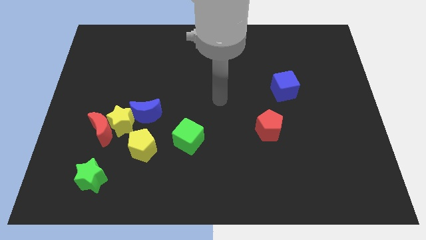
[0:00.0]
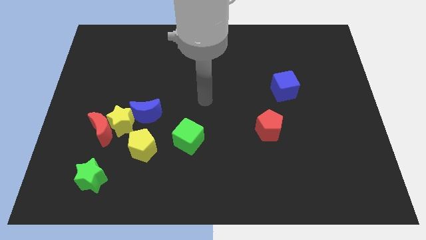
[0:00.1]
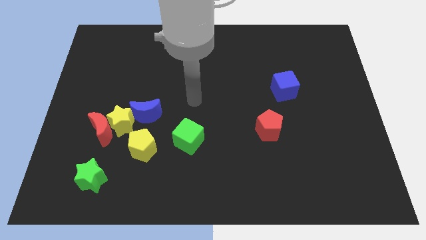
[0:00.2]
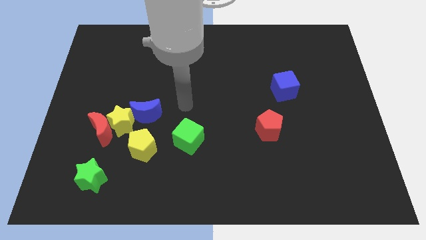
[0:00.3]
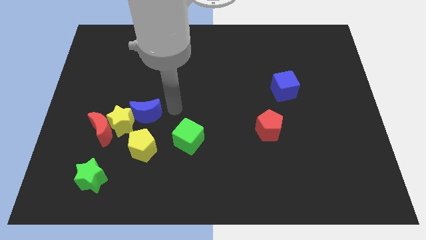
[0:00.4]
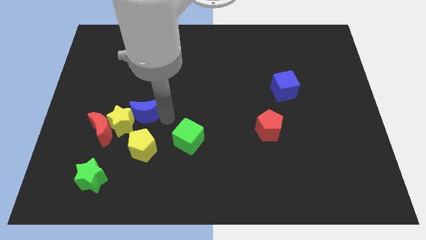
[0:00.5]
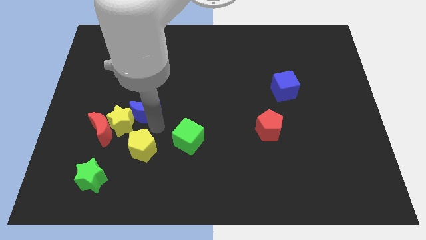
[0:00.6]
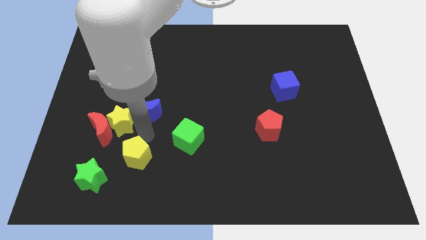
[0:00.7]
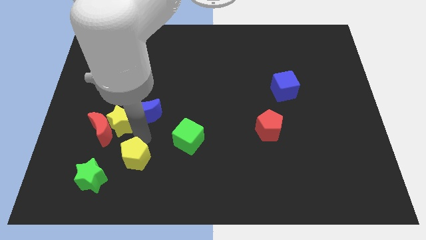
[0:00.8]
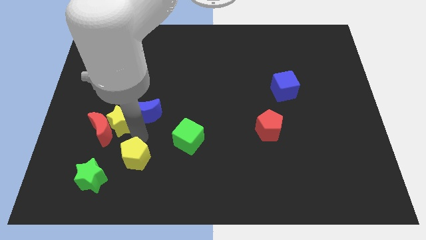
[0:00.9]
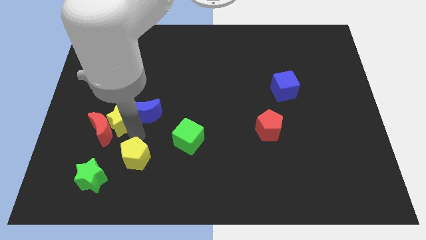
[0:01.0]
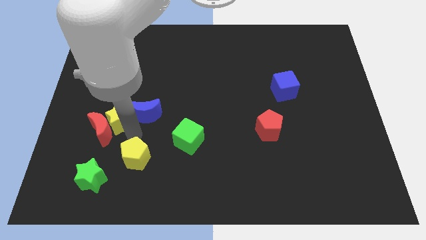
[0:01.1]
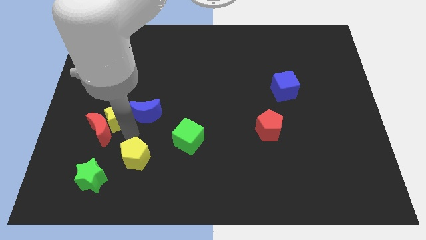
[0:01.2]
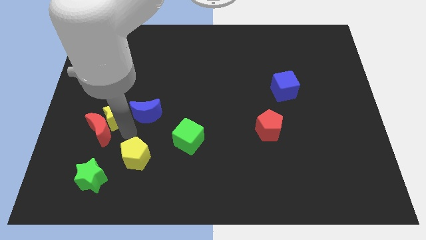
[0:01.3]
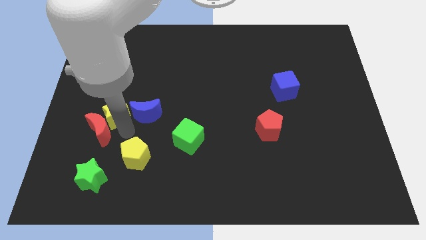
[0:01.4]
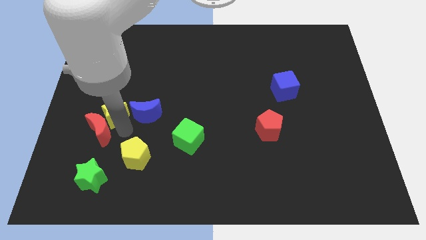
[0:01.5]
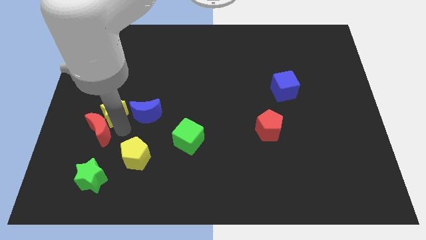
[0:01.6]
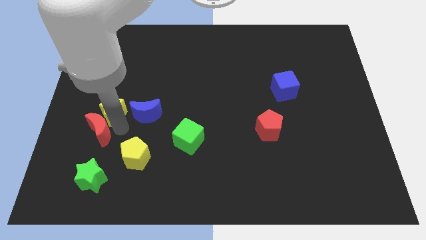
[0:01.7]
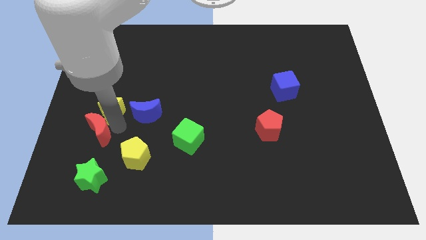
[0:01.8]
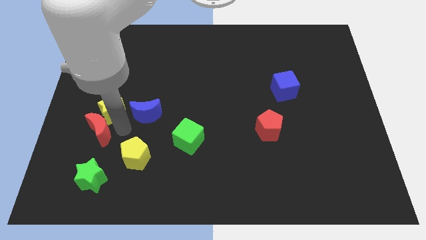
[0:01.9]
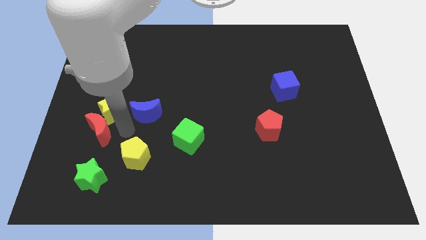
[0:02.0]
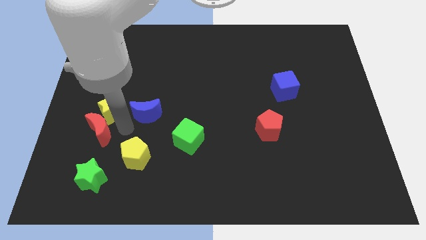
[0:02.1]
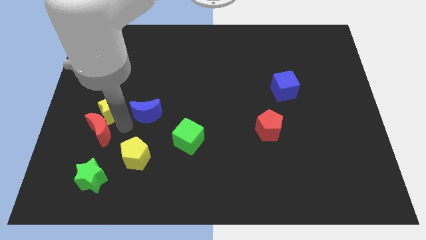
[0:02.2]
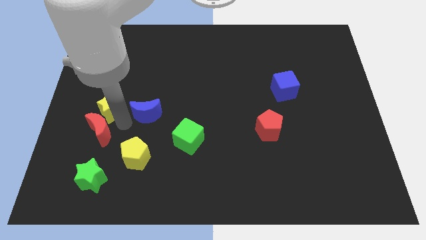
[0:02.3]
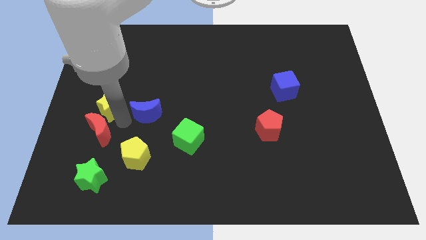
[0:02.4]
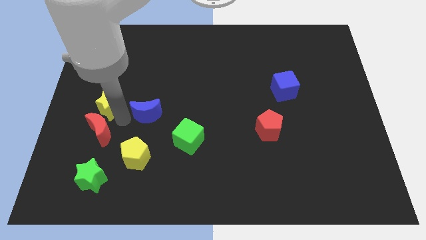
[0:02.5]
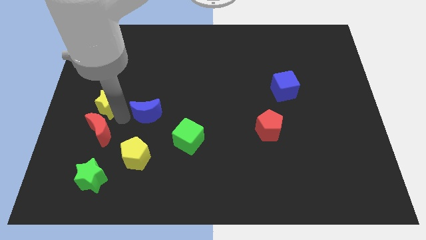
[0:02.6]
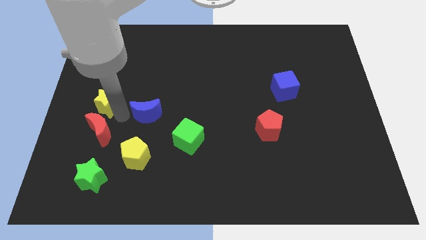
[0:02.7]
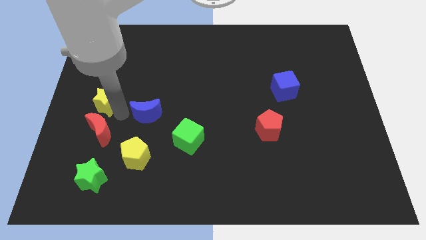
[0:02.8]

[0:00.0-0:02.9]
separate the yellow star from the red moon, blue moon, and yellow pentagon

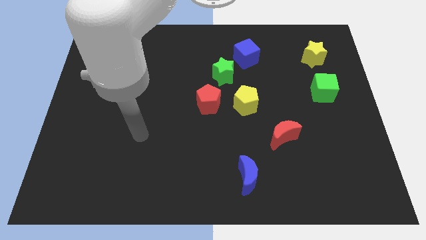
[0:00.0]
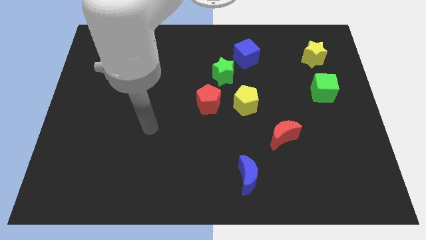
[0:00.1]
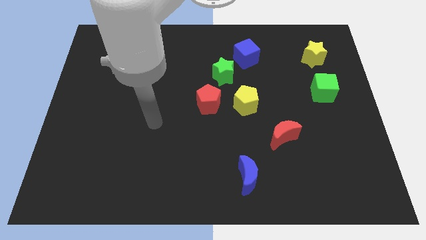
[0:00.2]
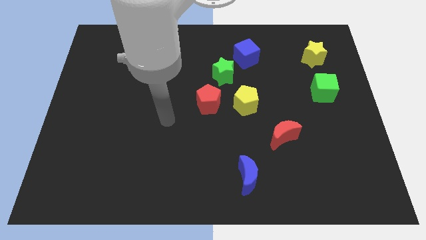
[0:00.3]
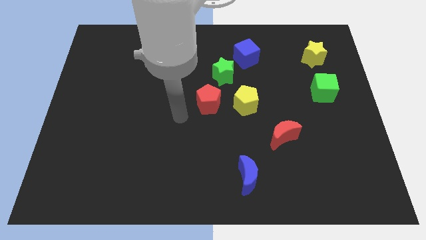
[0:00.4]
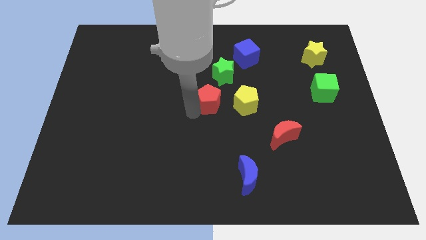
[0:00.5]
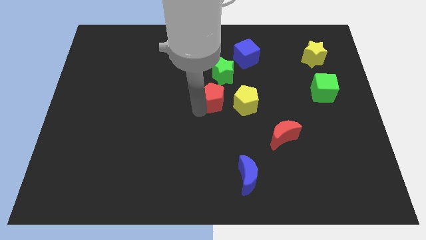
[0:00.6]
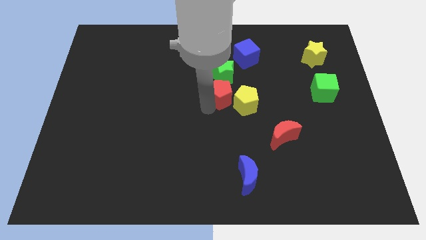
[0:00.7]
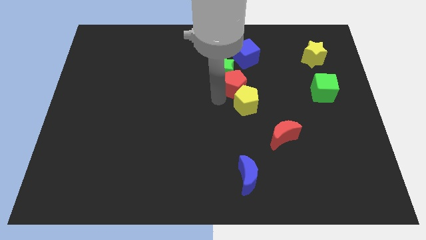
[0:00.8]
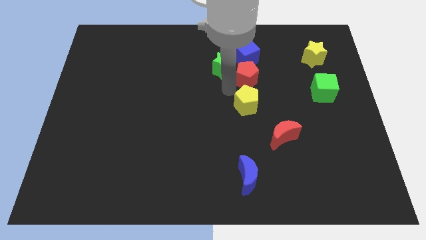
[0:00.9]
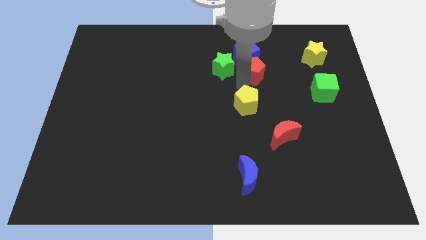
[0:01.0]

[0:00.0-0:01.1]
move the yellow pentagon away from the red pentagon

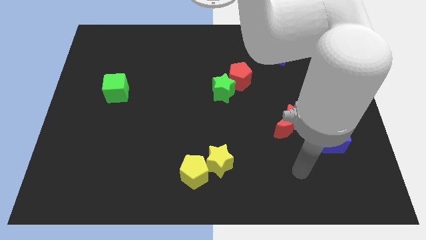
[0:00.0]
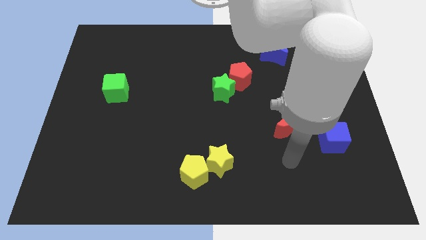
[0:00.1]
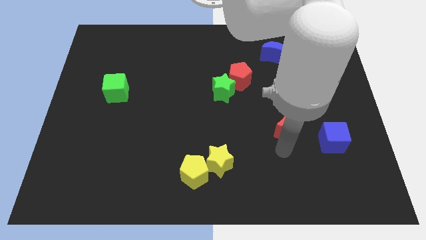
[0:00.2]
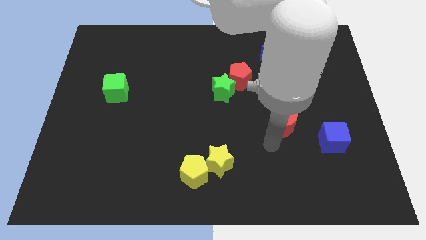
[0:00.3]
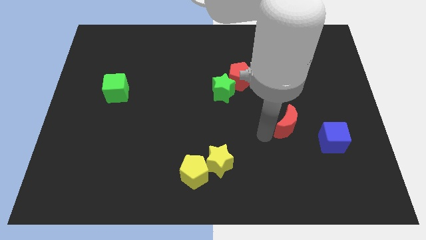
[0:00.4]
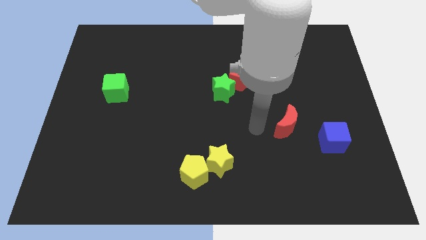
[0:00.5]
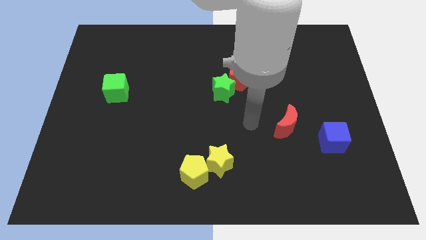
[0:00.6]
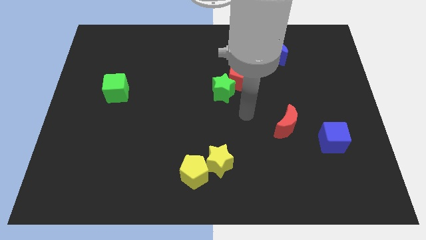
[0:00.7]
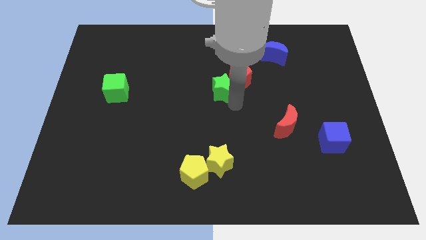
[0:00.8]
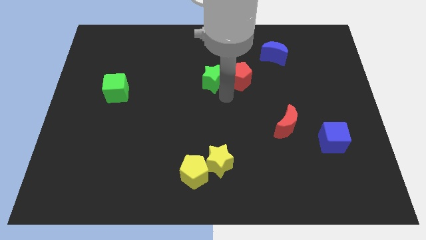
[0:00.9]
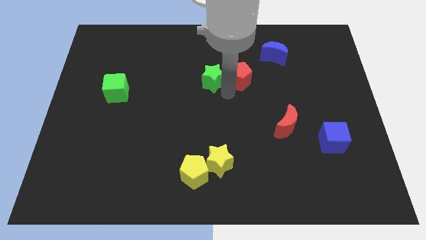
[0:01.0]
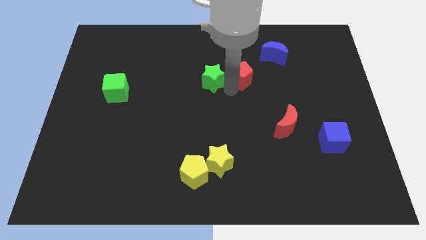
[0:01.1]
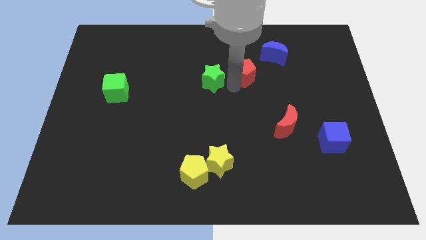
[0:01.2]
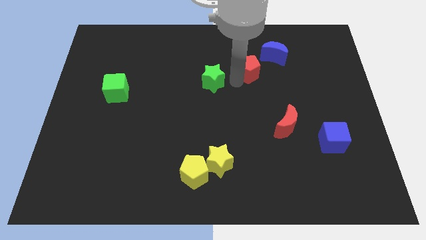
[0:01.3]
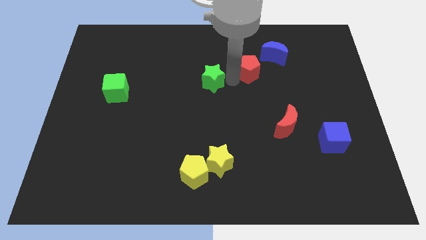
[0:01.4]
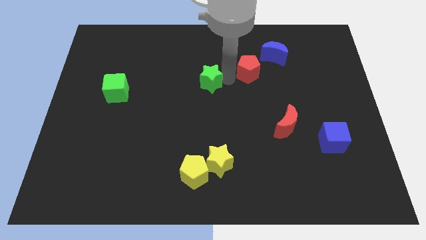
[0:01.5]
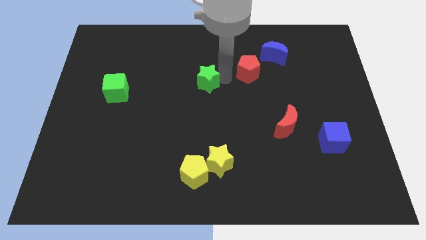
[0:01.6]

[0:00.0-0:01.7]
move the red pentagon away from the green star

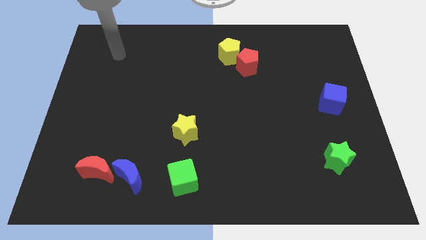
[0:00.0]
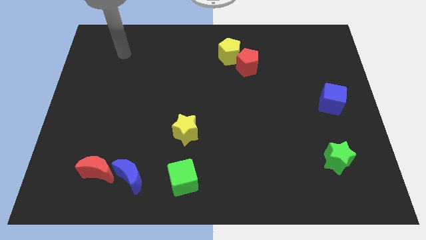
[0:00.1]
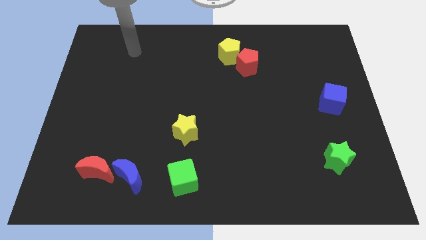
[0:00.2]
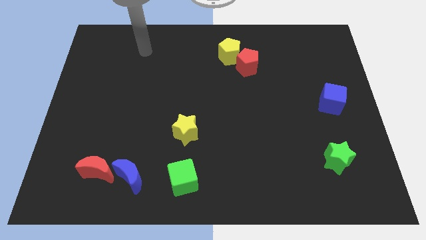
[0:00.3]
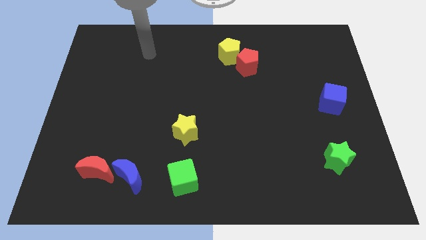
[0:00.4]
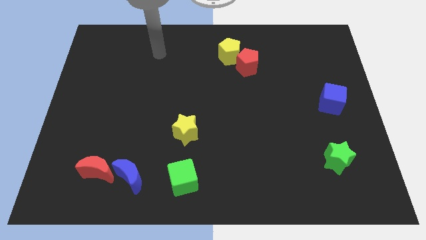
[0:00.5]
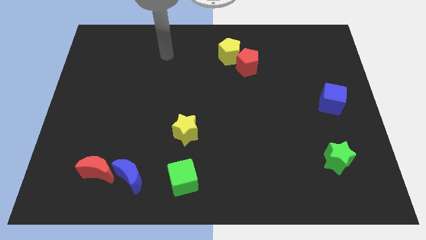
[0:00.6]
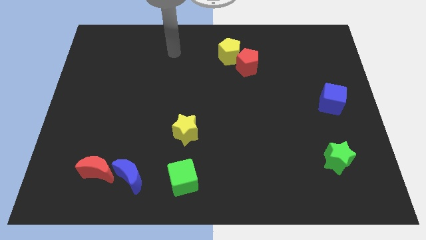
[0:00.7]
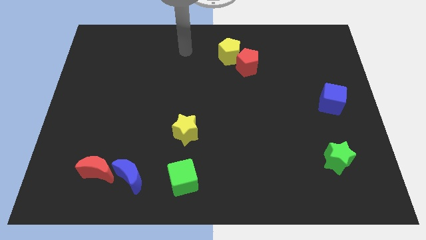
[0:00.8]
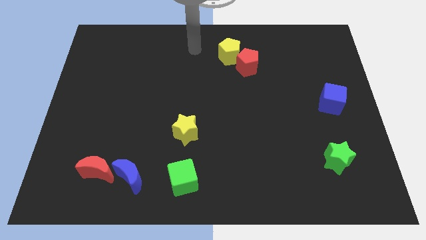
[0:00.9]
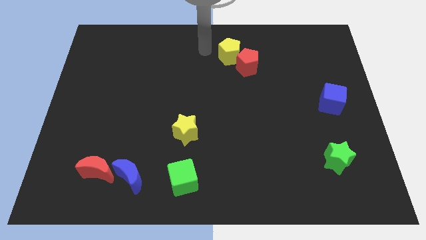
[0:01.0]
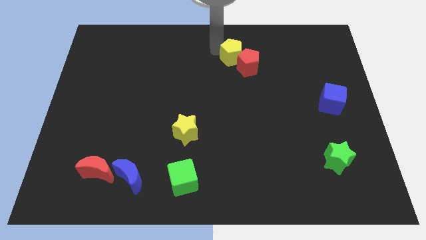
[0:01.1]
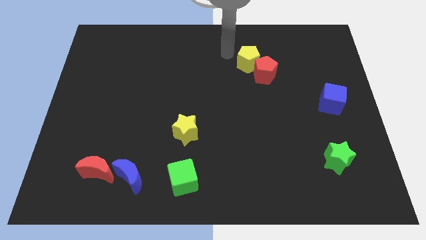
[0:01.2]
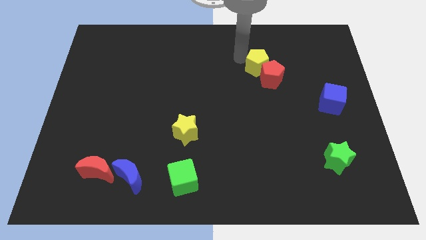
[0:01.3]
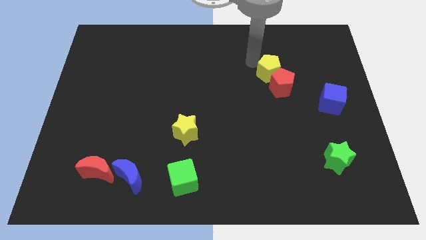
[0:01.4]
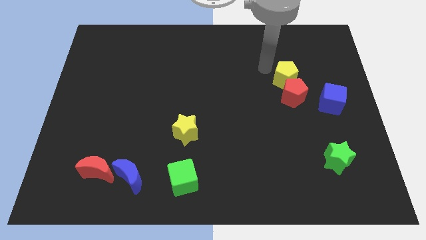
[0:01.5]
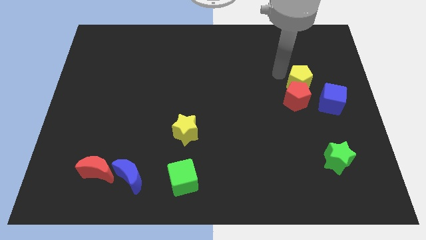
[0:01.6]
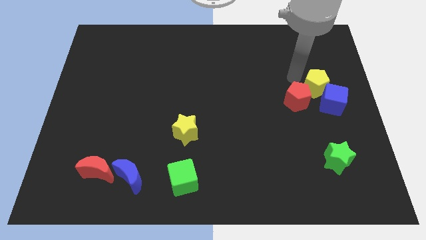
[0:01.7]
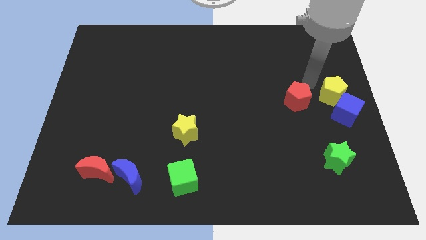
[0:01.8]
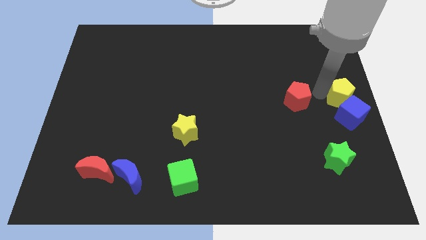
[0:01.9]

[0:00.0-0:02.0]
separate the red pentagon from the yellow pentagon

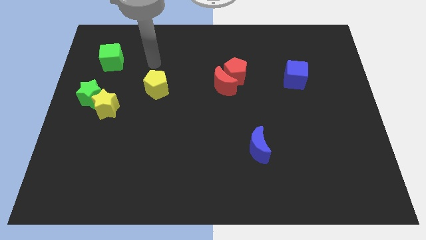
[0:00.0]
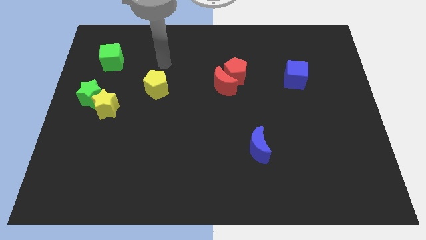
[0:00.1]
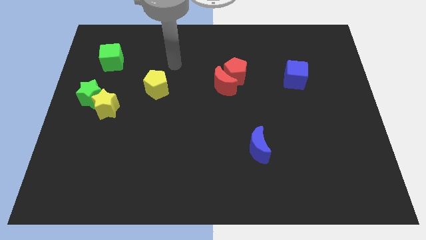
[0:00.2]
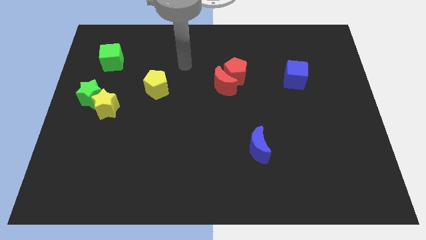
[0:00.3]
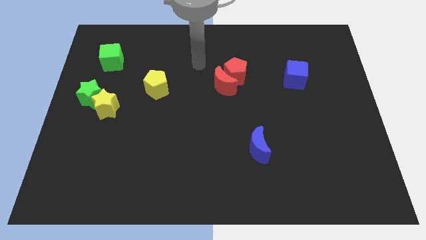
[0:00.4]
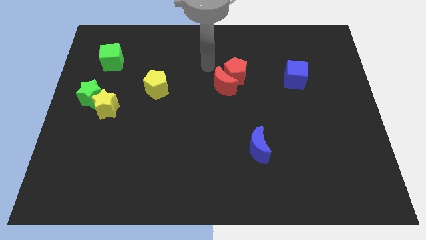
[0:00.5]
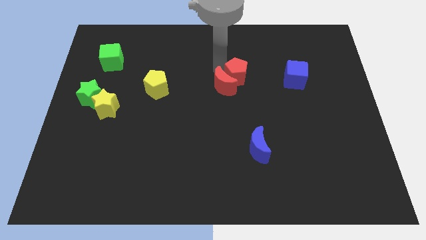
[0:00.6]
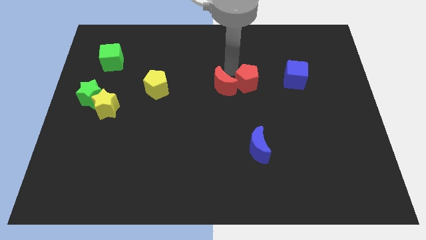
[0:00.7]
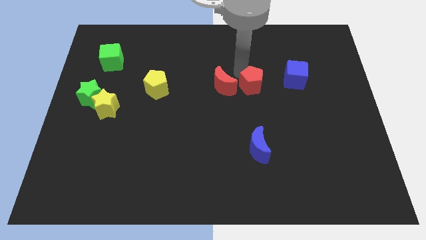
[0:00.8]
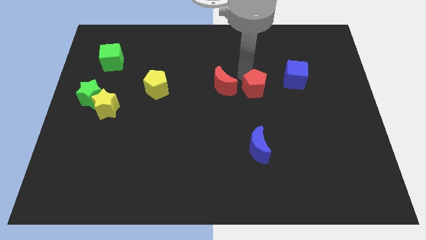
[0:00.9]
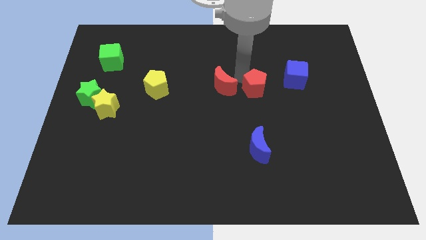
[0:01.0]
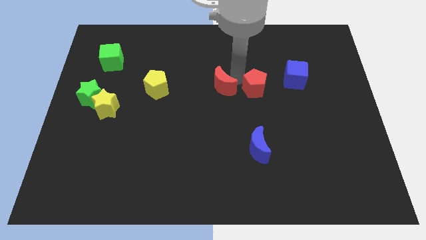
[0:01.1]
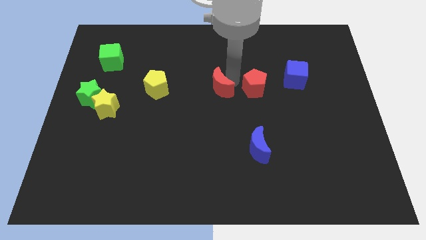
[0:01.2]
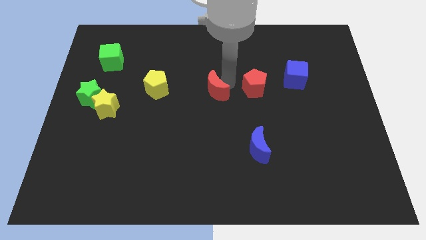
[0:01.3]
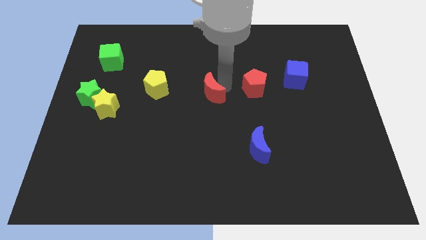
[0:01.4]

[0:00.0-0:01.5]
separate the red moon from the red pentagon
